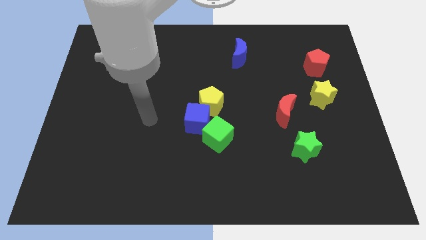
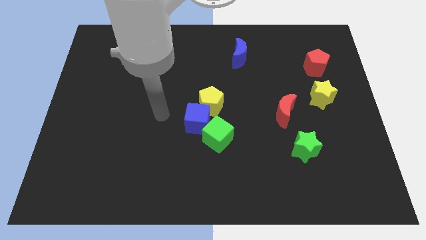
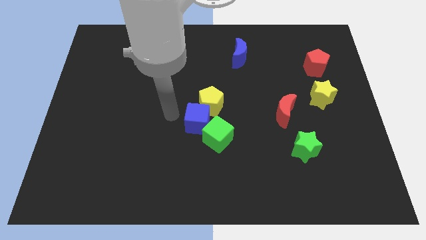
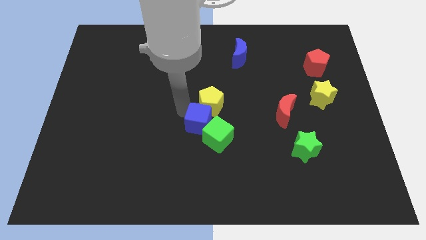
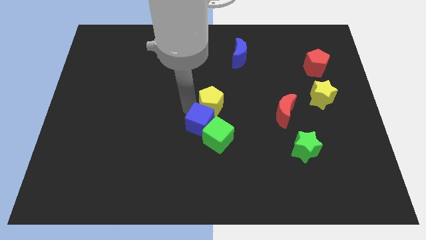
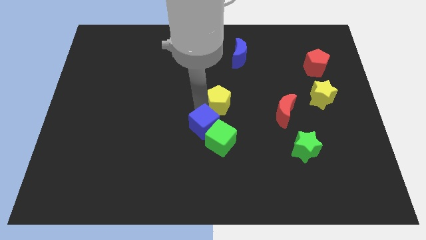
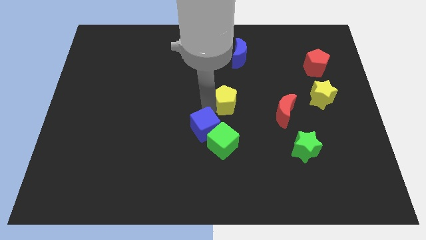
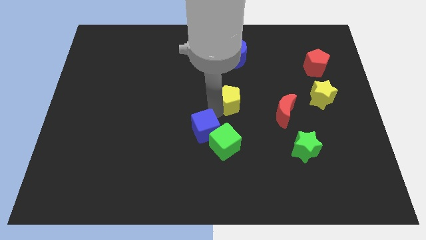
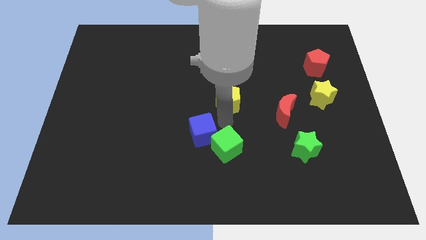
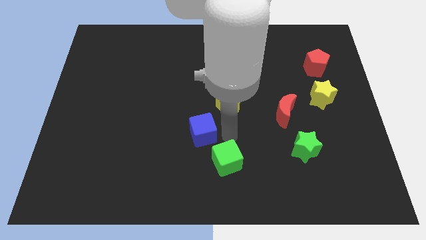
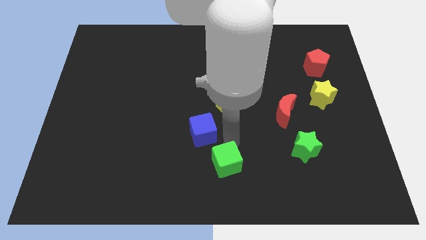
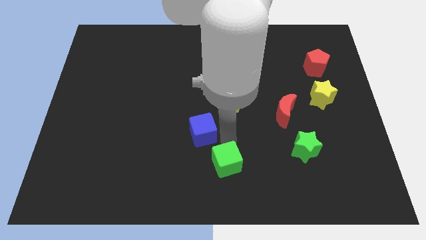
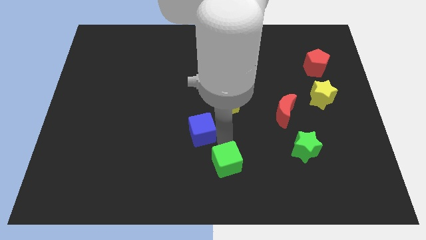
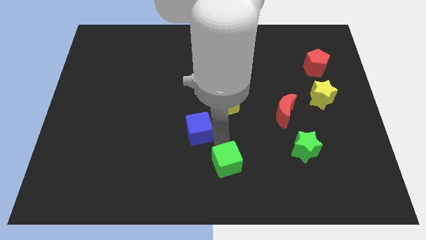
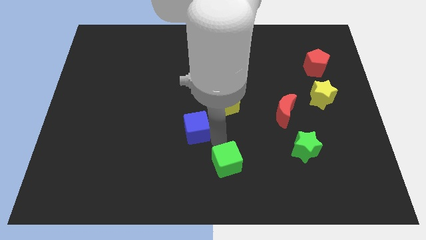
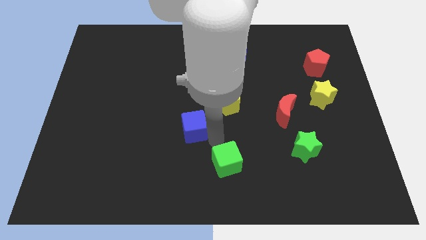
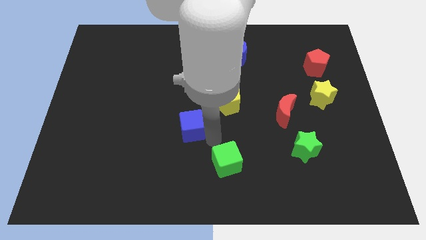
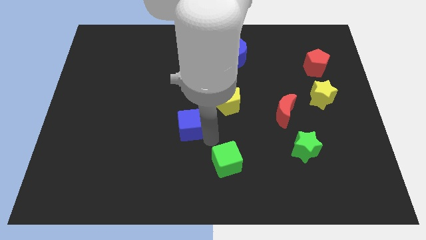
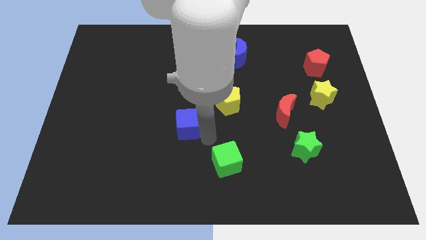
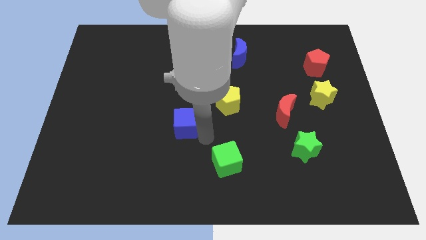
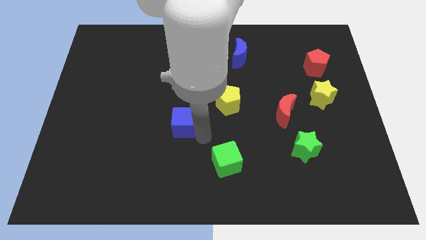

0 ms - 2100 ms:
pull the blue cube apart from the yellow pentagon and green cube

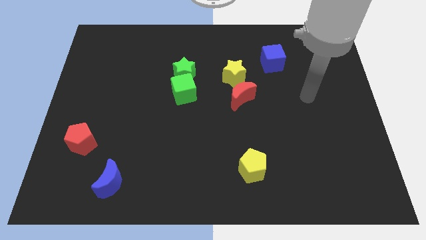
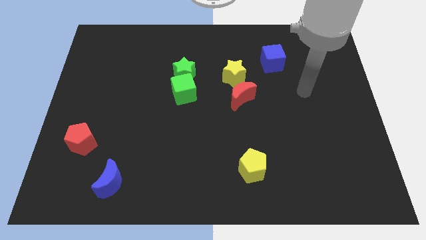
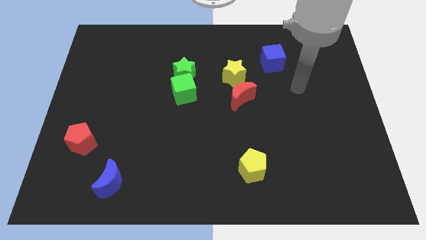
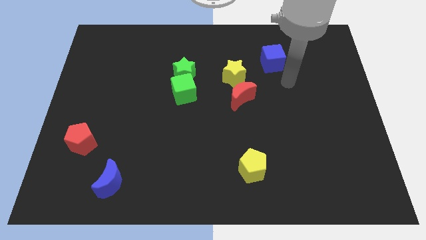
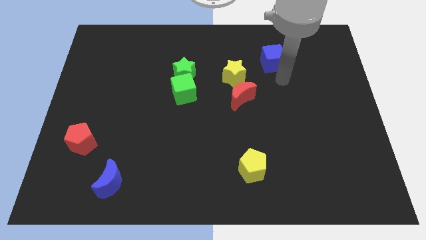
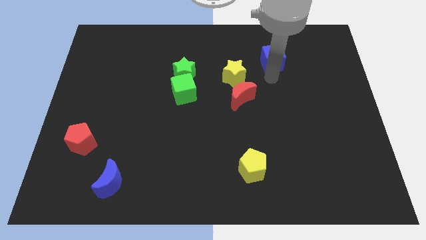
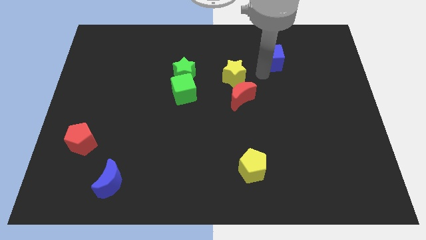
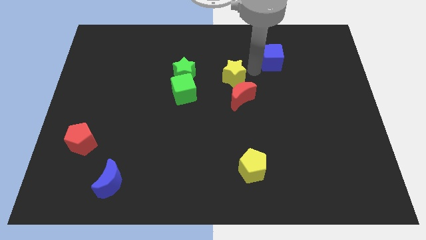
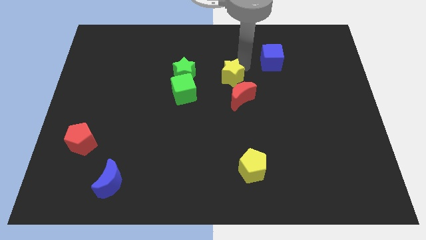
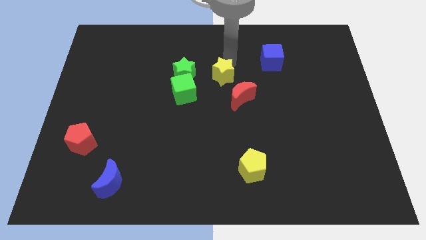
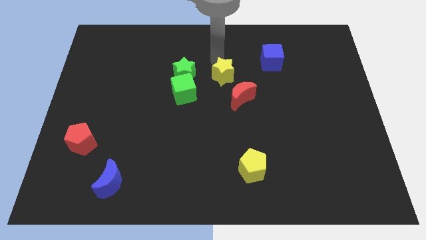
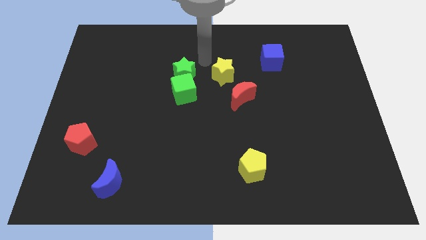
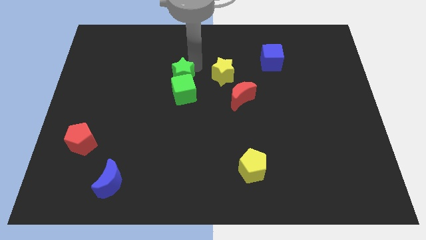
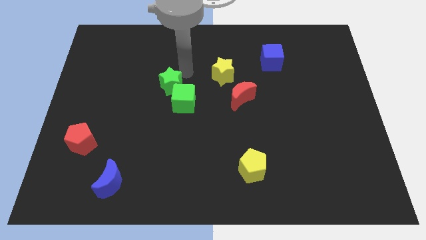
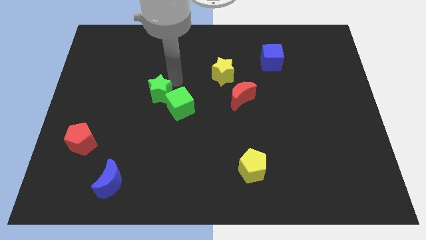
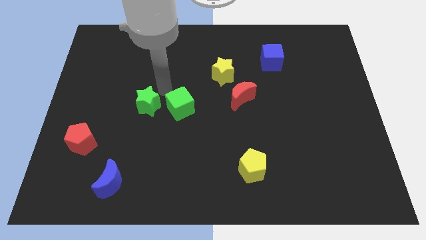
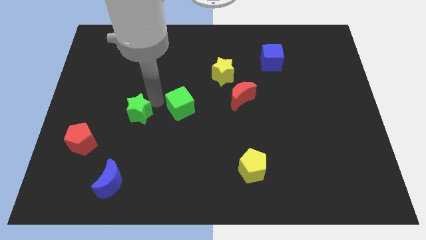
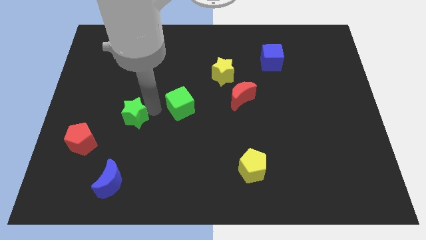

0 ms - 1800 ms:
pull the green cube apart from the green star

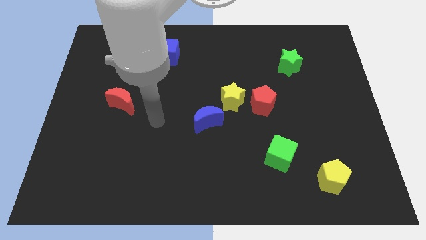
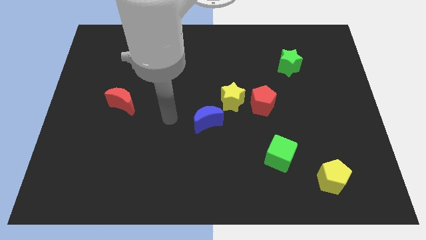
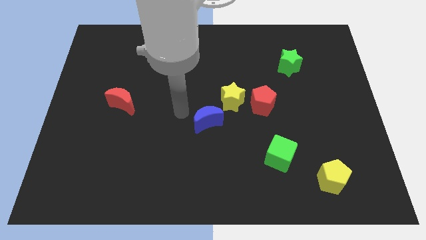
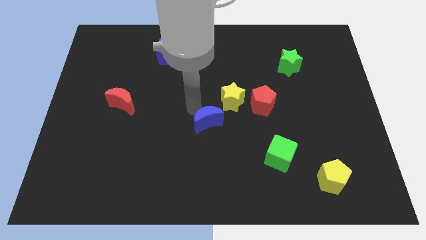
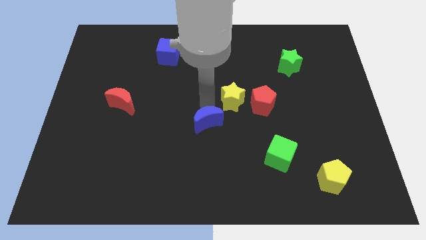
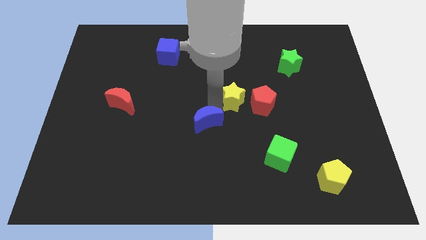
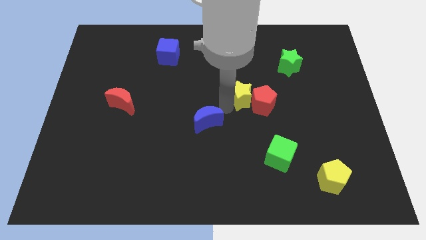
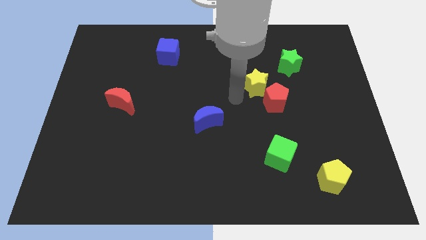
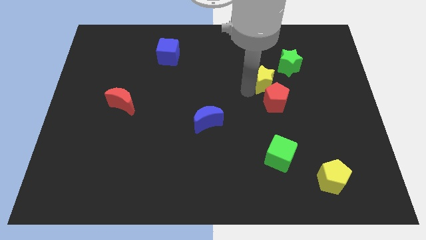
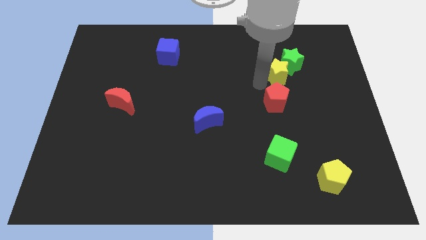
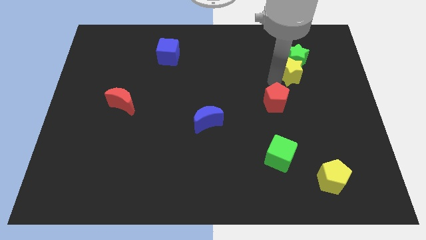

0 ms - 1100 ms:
move the red pentagon away from the yellow star

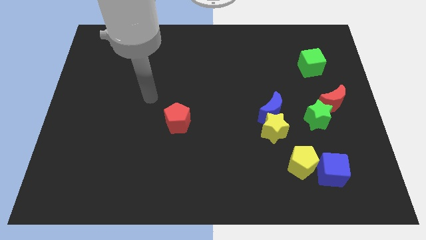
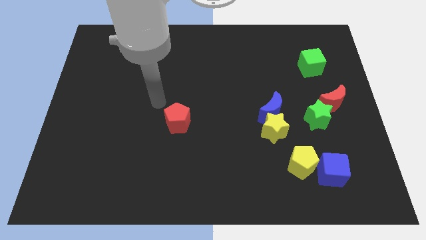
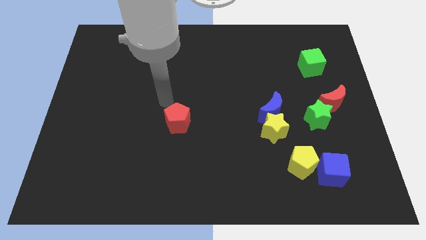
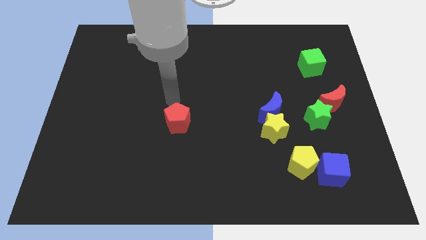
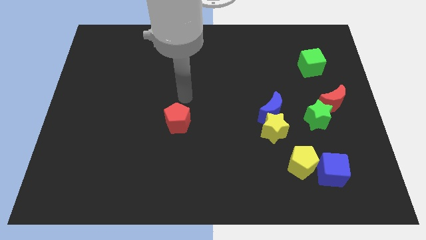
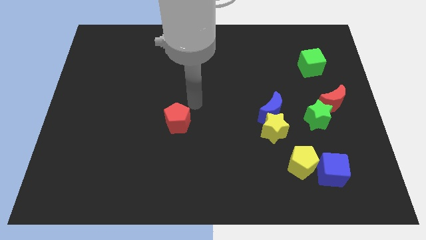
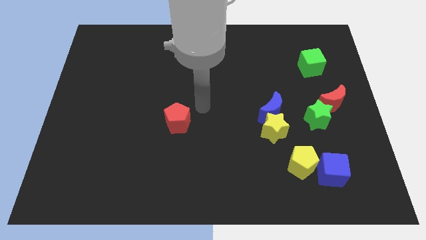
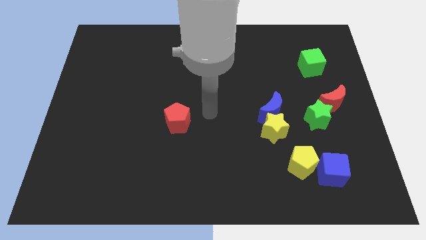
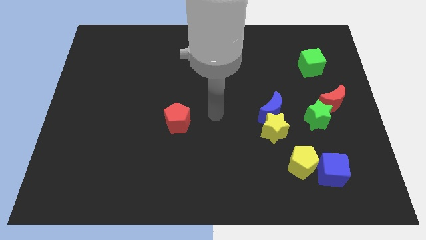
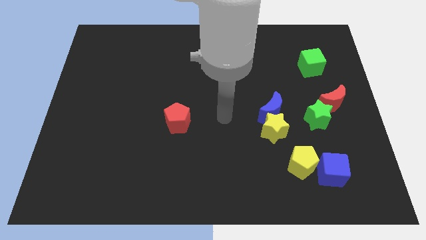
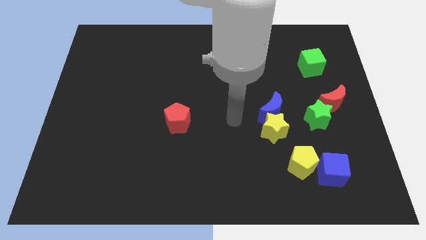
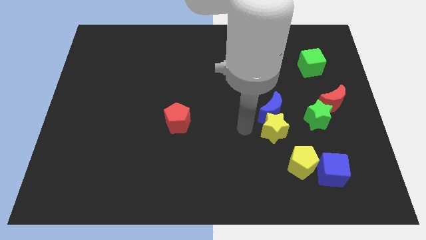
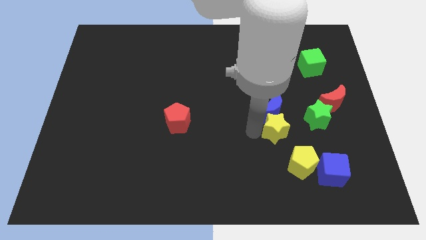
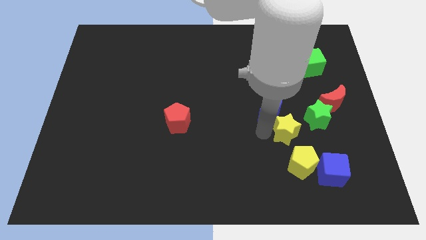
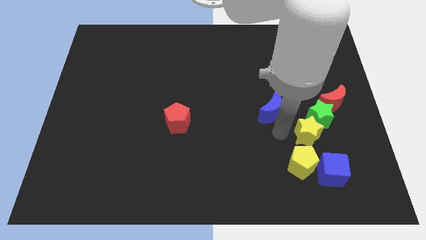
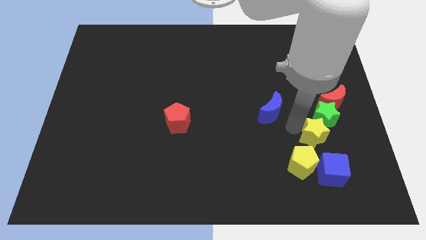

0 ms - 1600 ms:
move the blue moon away from the yellow star

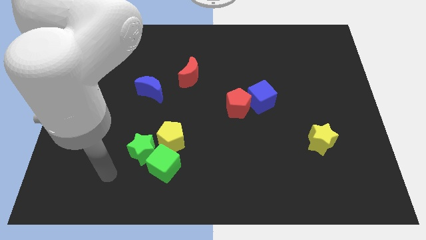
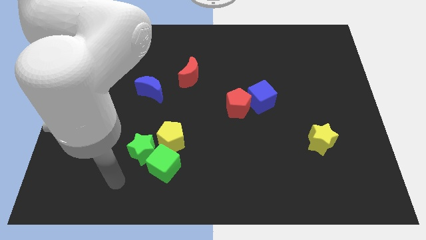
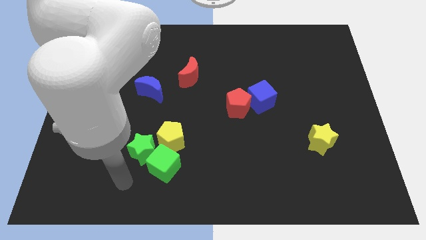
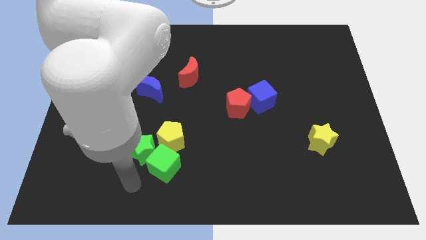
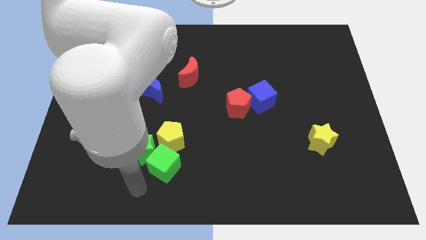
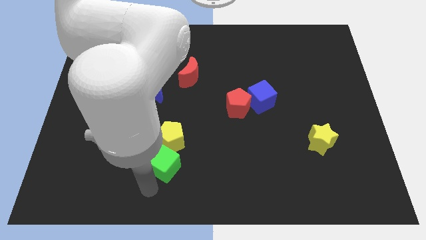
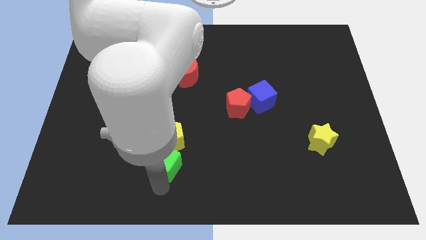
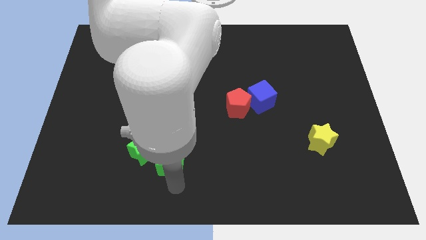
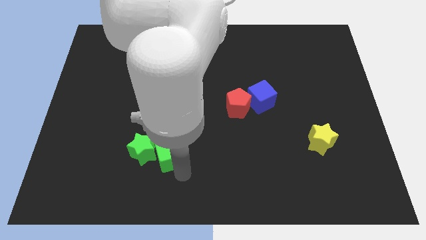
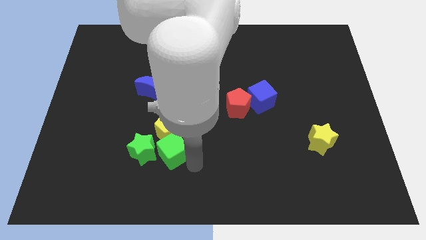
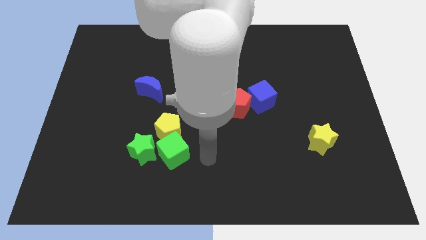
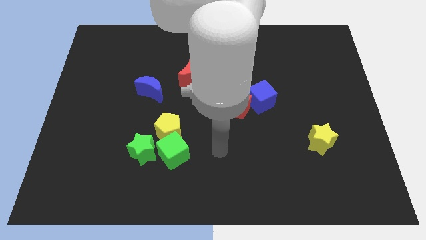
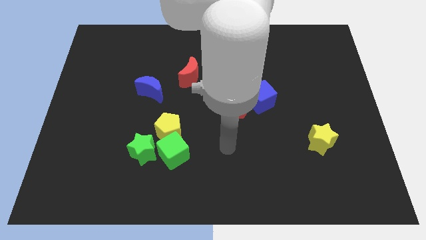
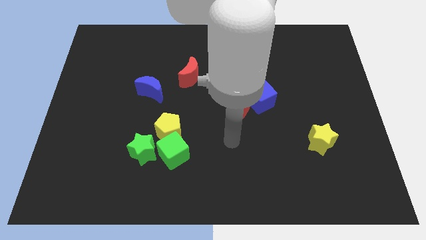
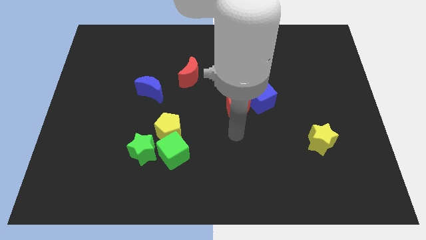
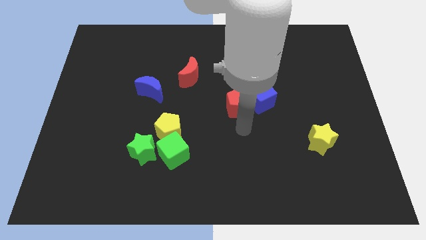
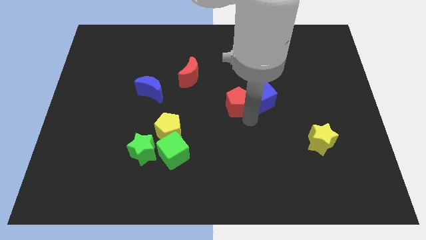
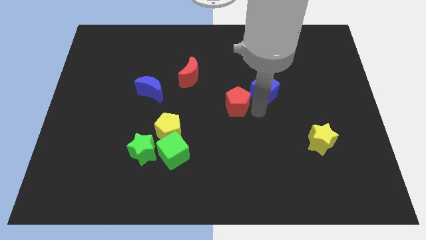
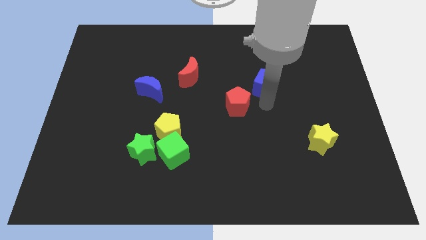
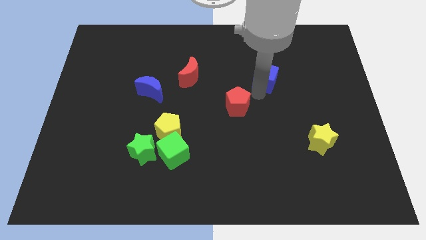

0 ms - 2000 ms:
move the red pentagon away from the blue cube

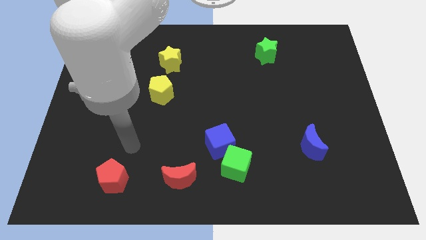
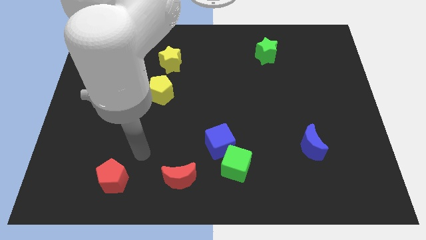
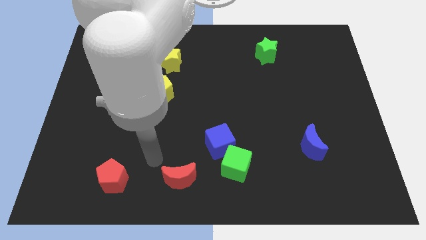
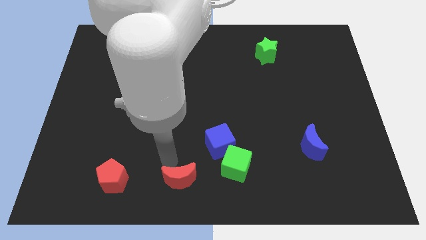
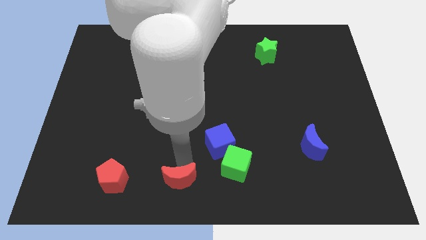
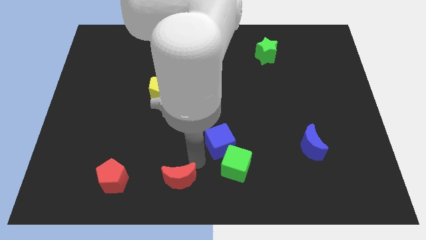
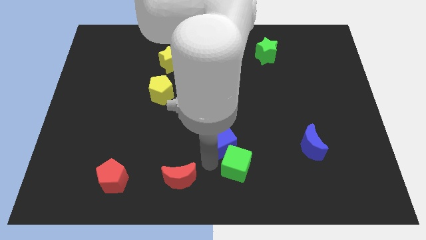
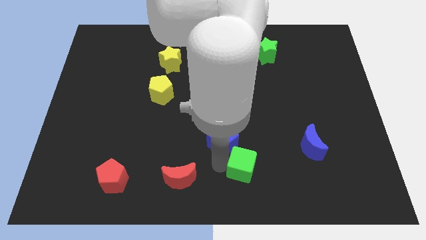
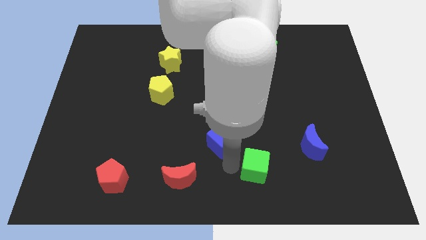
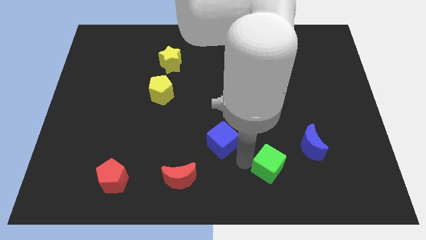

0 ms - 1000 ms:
move the blue cube away from the green cube
